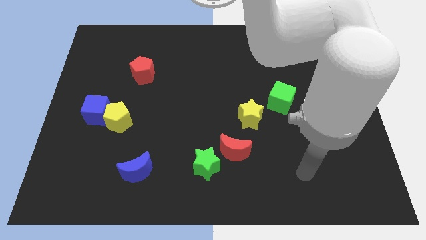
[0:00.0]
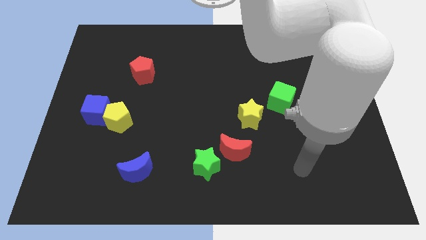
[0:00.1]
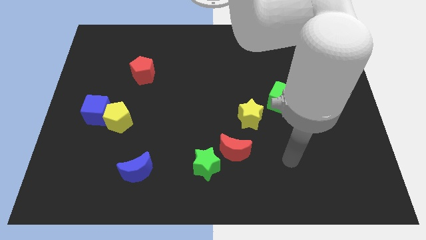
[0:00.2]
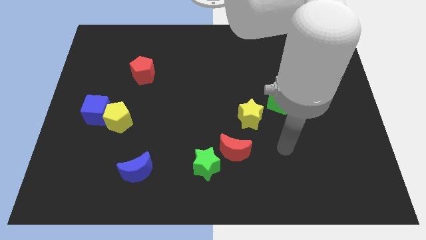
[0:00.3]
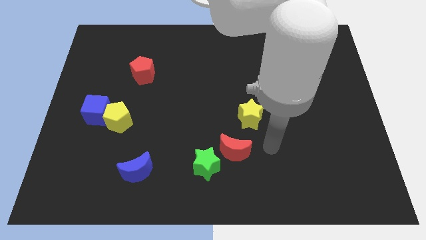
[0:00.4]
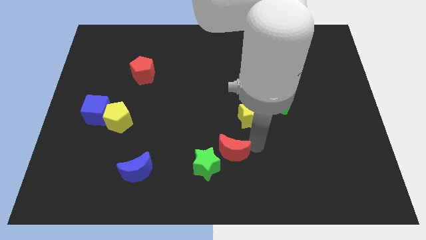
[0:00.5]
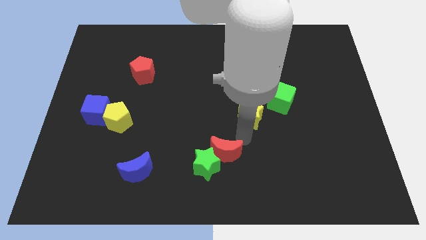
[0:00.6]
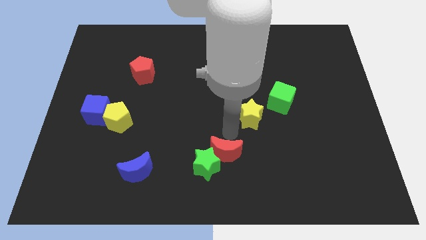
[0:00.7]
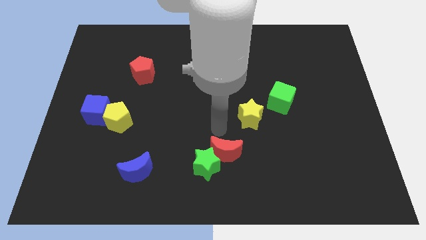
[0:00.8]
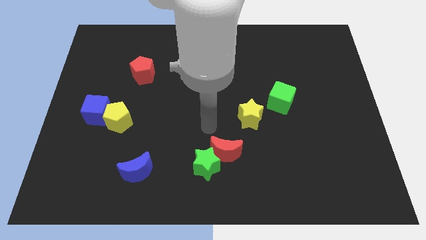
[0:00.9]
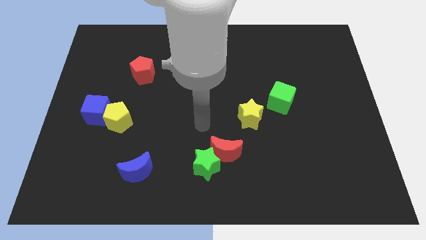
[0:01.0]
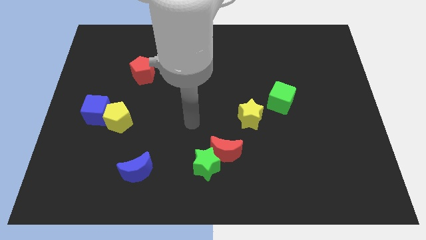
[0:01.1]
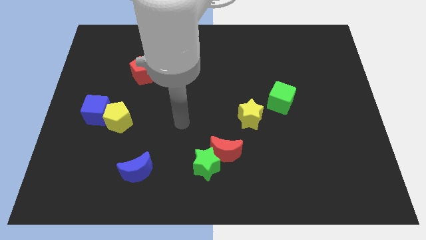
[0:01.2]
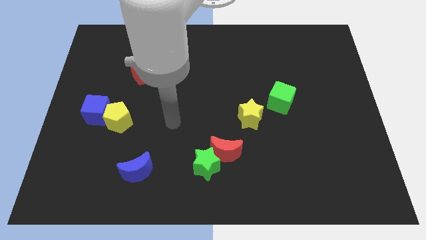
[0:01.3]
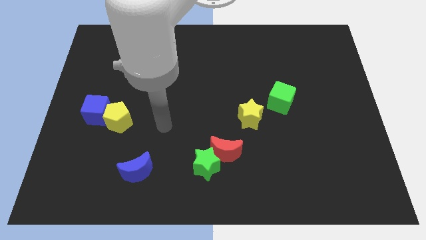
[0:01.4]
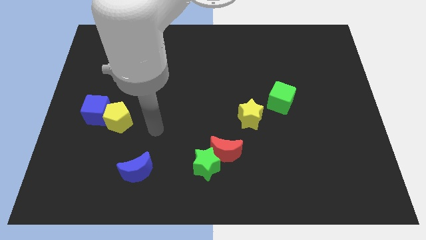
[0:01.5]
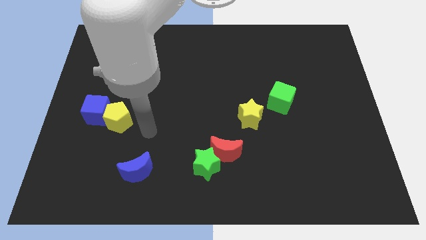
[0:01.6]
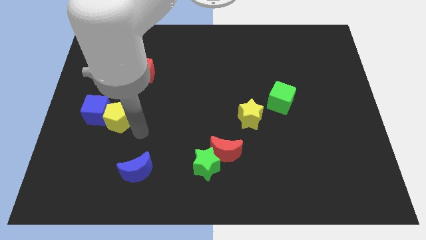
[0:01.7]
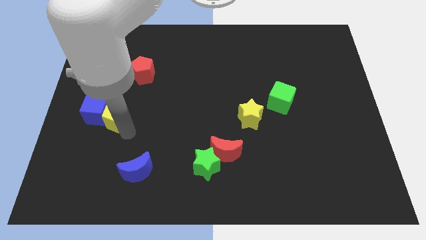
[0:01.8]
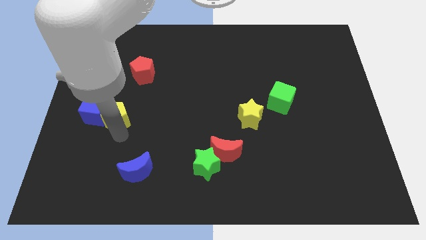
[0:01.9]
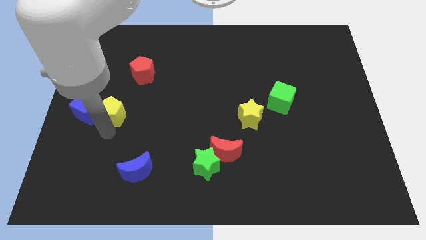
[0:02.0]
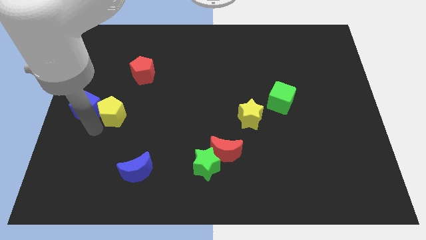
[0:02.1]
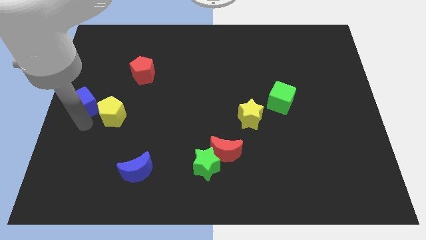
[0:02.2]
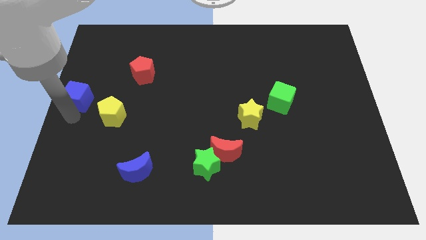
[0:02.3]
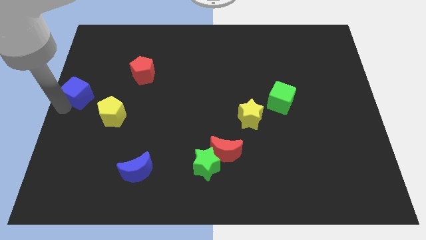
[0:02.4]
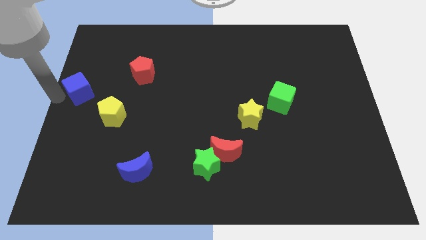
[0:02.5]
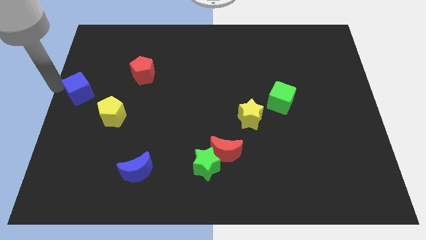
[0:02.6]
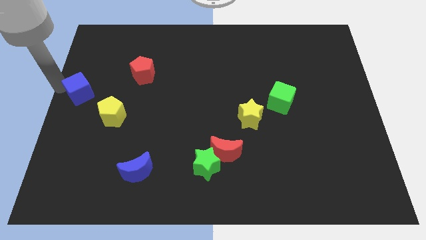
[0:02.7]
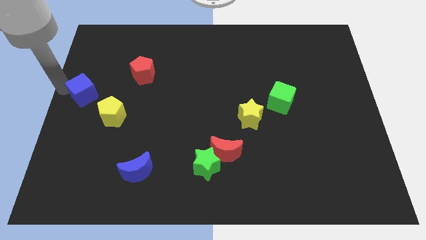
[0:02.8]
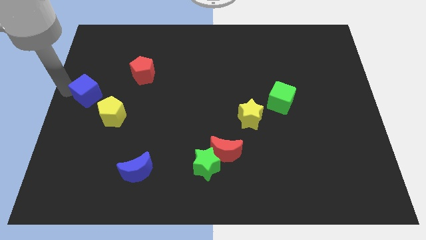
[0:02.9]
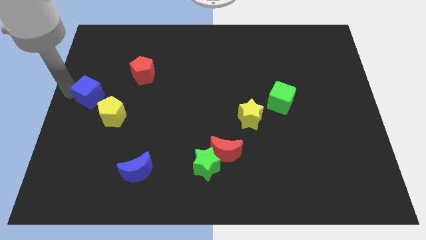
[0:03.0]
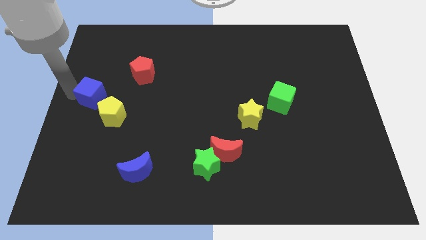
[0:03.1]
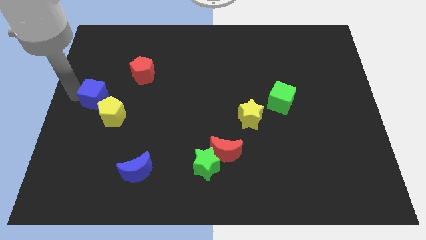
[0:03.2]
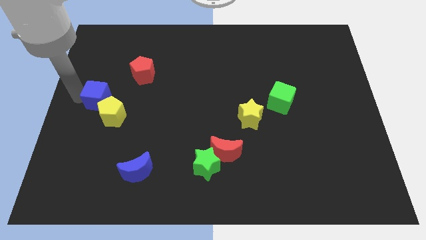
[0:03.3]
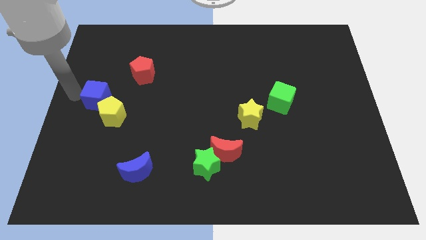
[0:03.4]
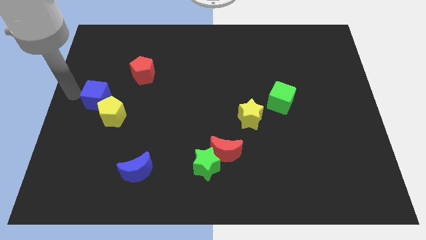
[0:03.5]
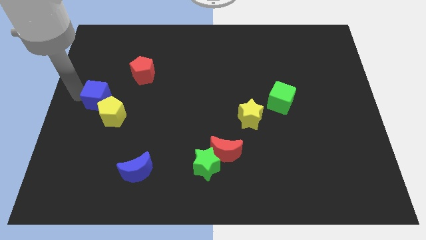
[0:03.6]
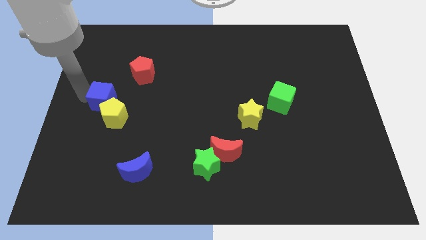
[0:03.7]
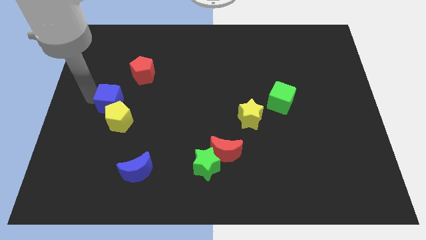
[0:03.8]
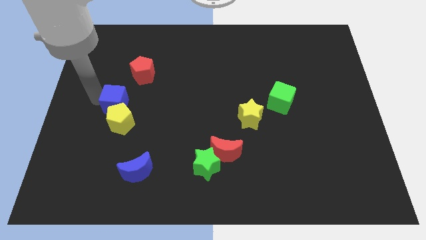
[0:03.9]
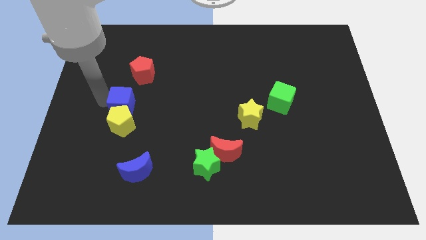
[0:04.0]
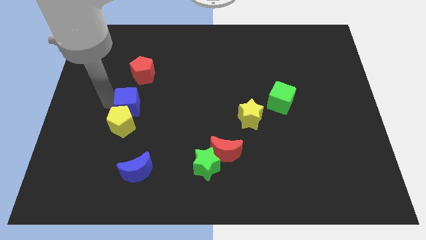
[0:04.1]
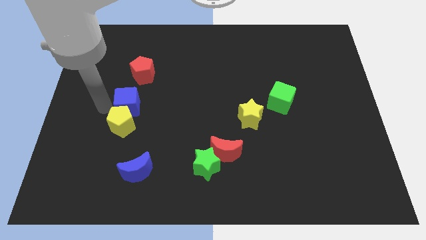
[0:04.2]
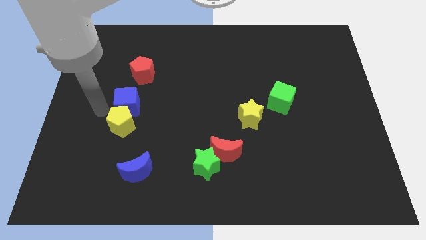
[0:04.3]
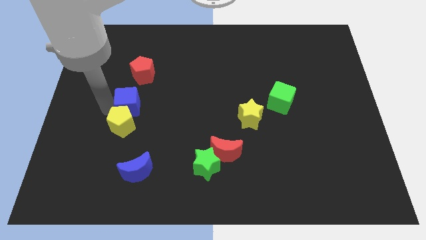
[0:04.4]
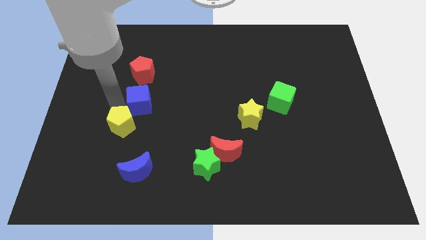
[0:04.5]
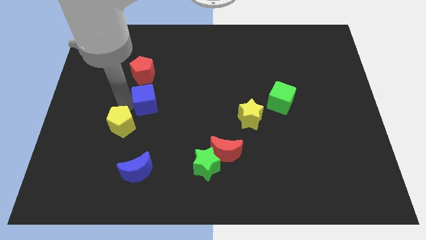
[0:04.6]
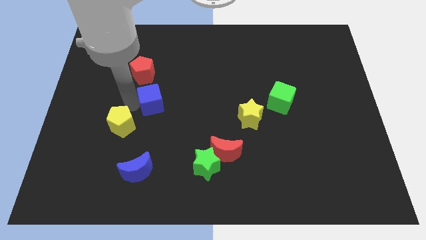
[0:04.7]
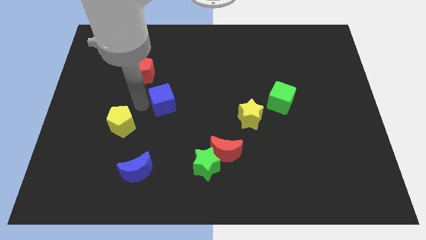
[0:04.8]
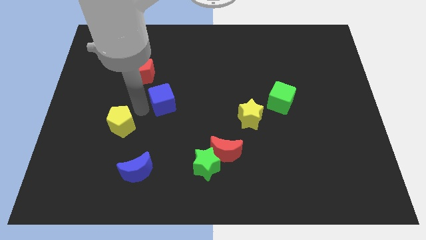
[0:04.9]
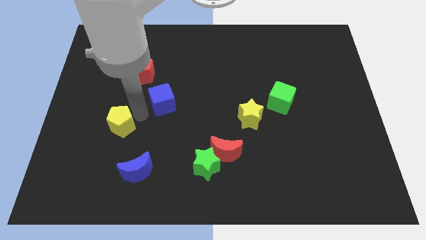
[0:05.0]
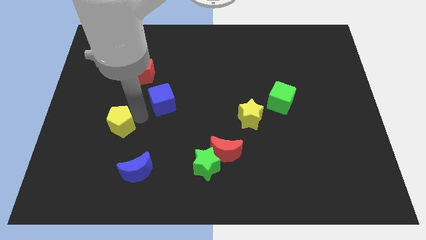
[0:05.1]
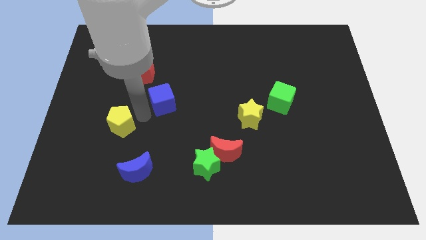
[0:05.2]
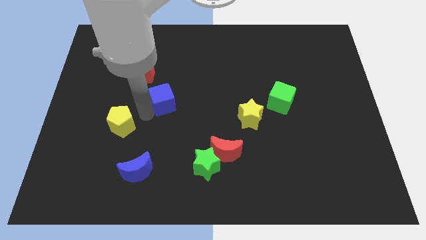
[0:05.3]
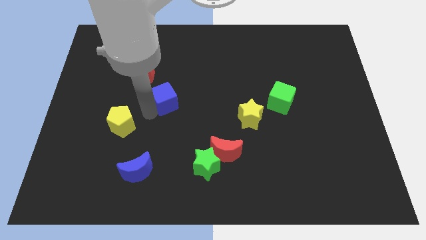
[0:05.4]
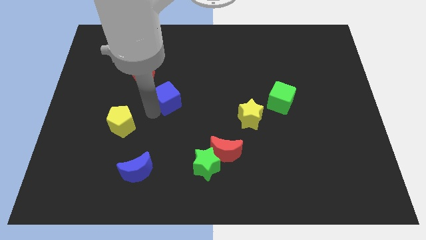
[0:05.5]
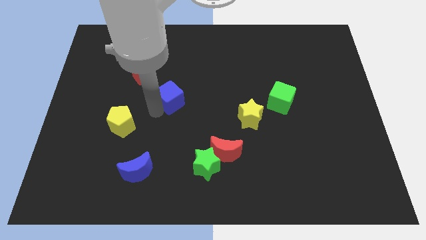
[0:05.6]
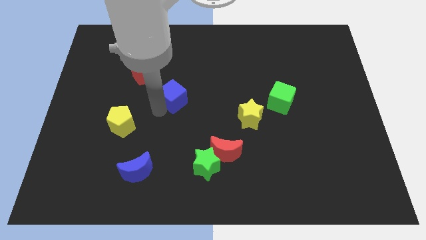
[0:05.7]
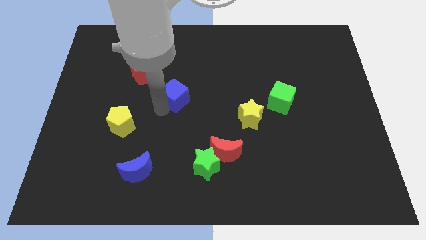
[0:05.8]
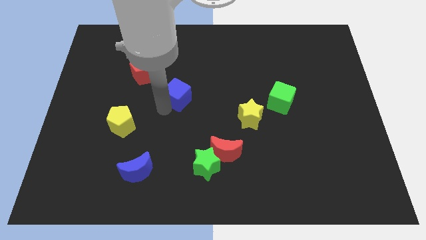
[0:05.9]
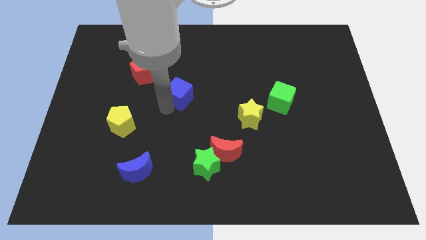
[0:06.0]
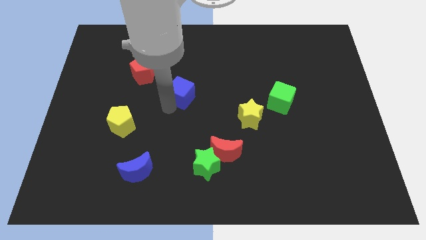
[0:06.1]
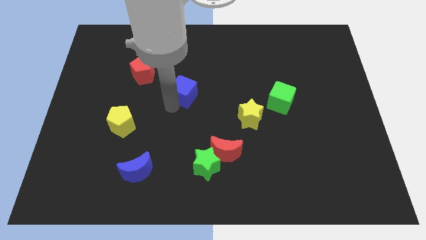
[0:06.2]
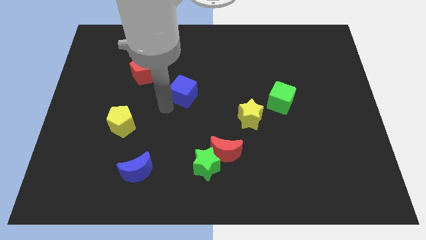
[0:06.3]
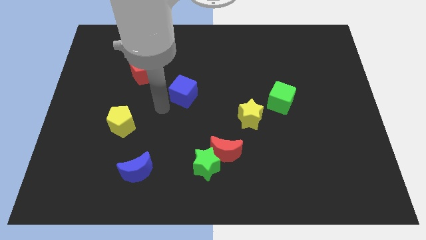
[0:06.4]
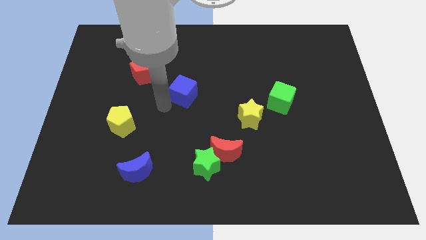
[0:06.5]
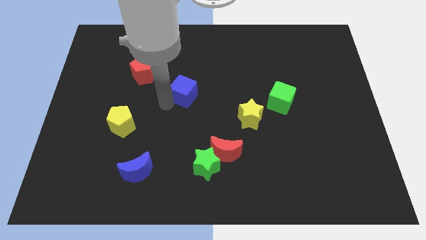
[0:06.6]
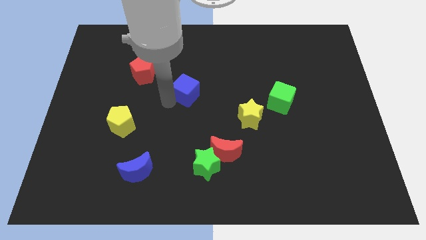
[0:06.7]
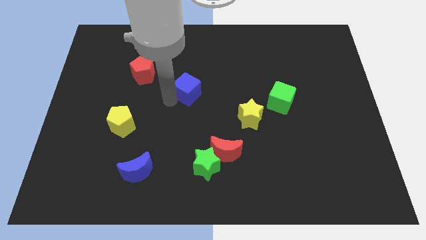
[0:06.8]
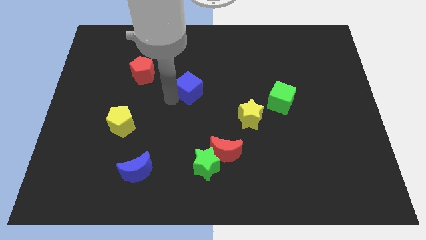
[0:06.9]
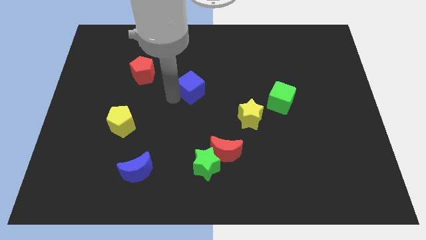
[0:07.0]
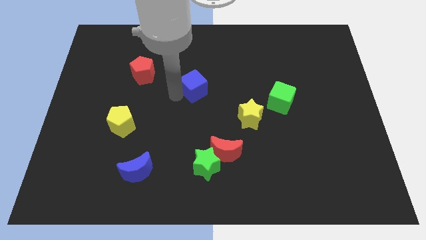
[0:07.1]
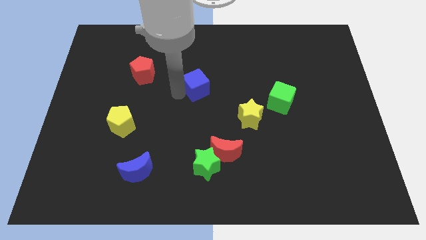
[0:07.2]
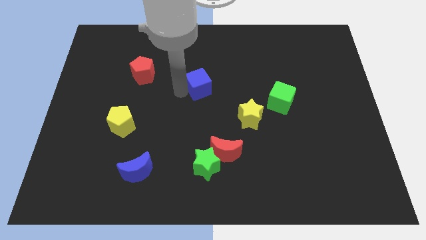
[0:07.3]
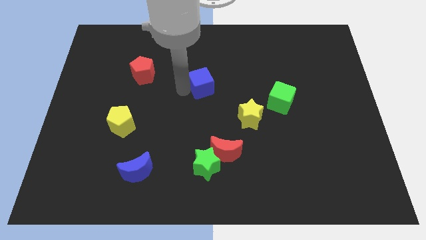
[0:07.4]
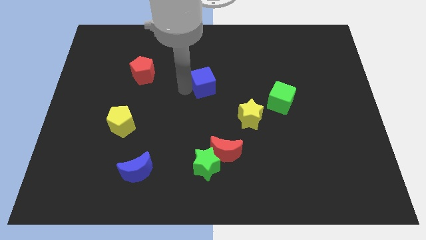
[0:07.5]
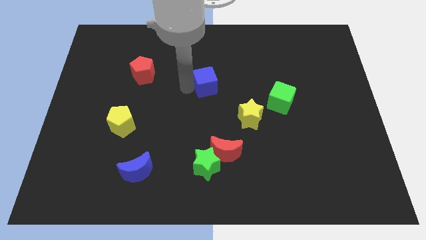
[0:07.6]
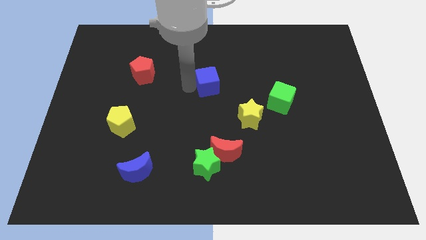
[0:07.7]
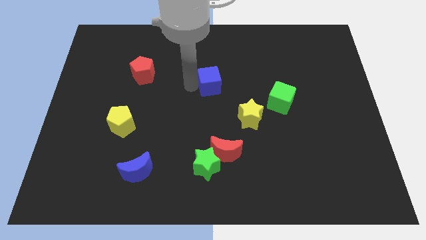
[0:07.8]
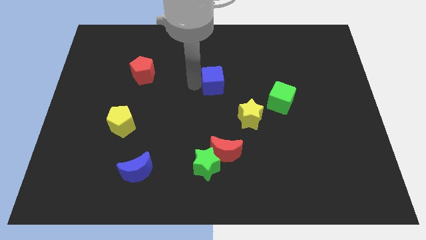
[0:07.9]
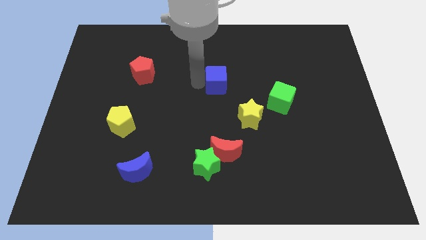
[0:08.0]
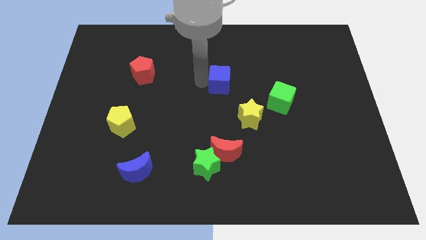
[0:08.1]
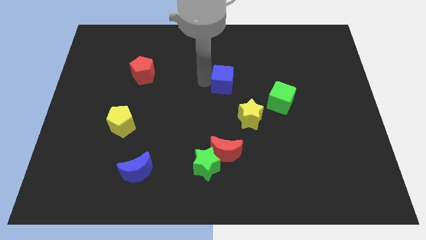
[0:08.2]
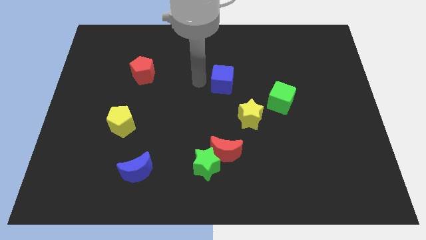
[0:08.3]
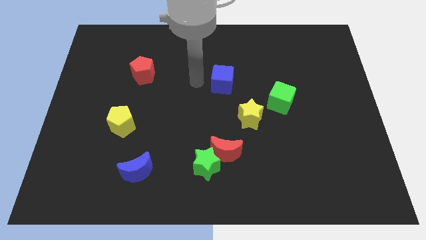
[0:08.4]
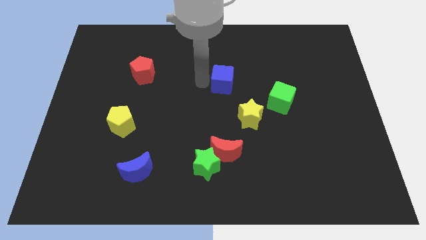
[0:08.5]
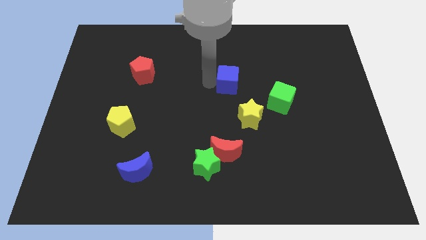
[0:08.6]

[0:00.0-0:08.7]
put the blue cube to the top of the yellow star
